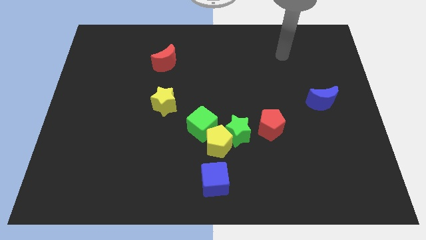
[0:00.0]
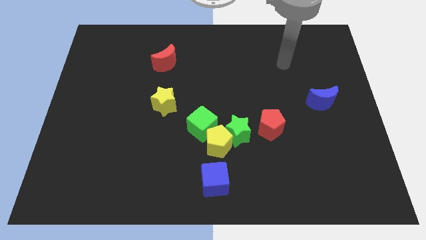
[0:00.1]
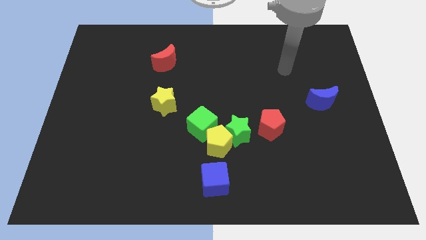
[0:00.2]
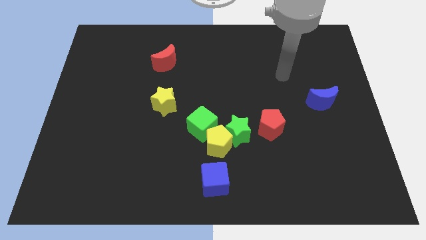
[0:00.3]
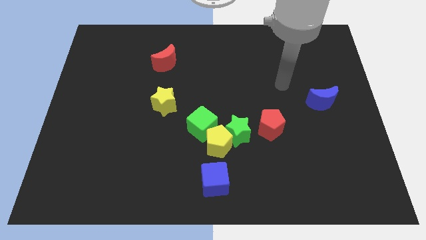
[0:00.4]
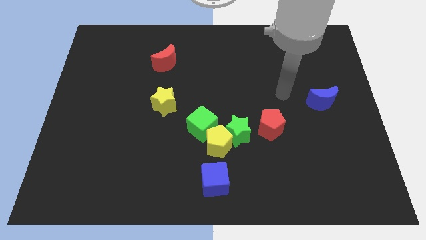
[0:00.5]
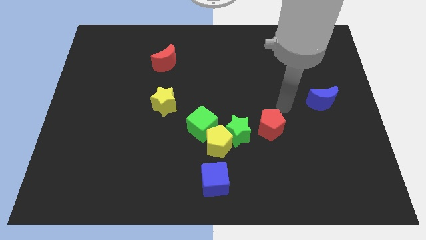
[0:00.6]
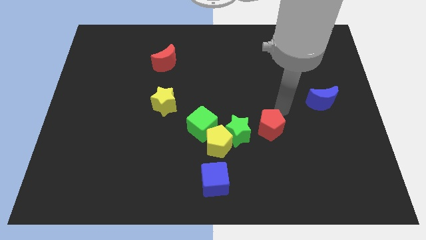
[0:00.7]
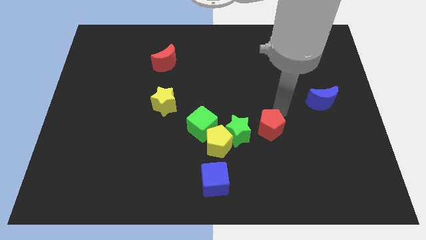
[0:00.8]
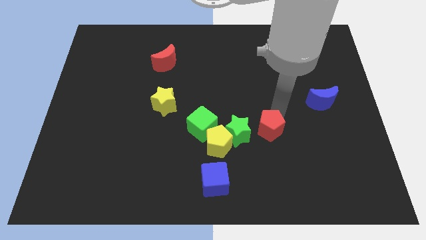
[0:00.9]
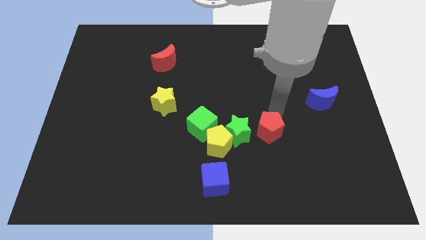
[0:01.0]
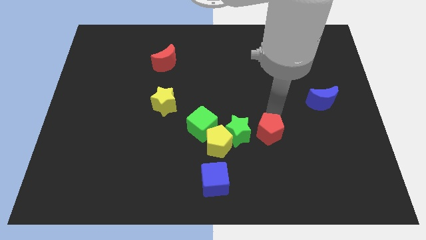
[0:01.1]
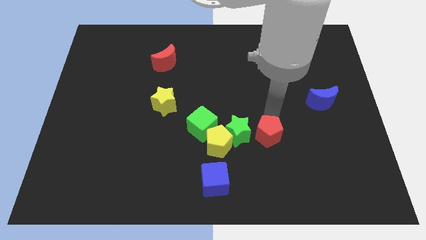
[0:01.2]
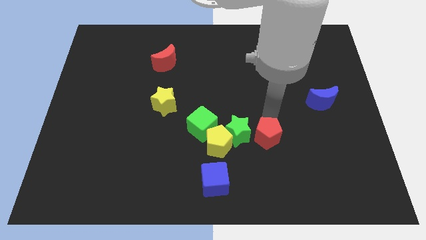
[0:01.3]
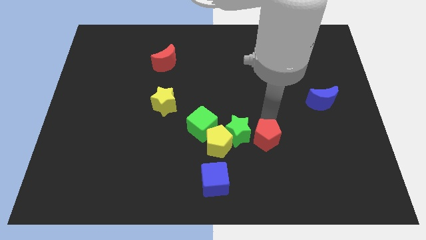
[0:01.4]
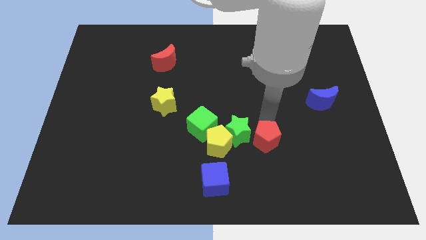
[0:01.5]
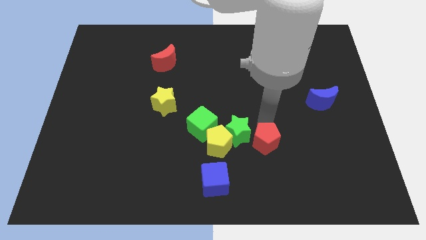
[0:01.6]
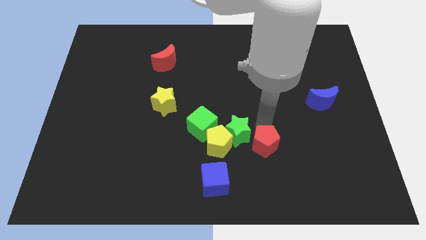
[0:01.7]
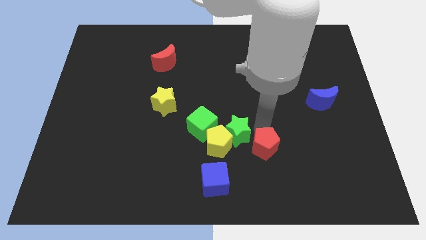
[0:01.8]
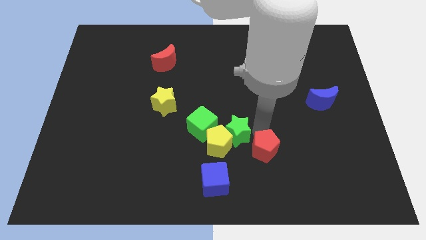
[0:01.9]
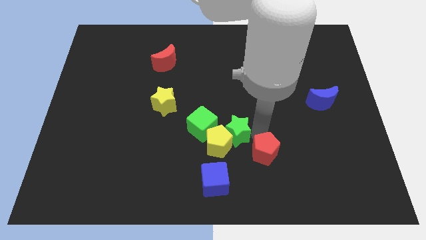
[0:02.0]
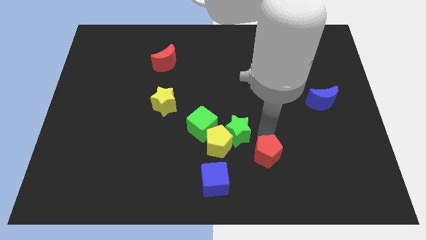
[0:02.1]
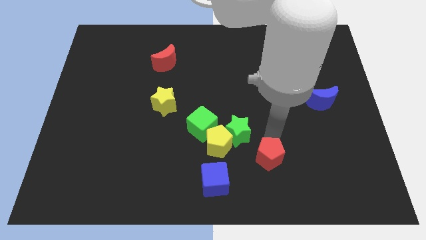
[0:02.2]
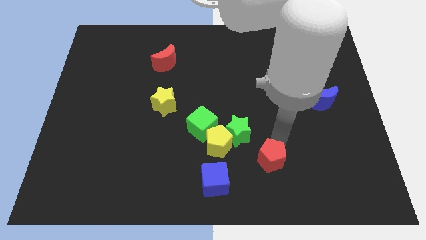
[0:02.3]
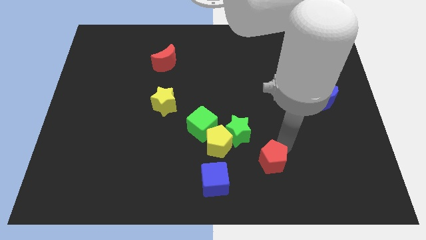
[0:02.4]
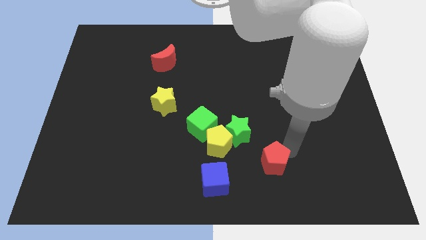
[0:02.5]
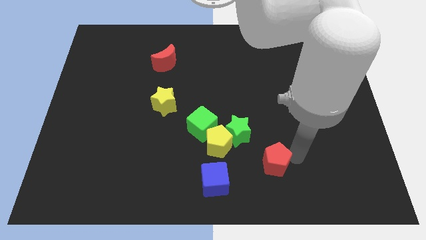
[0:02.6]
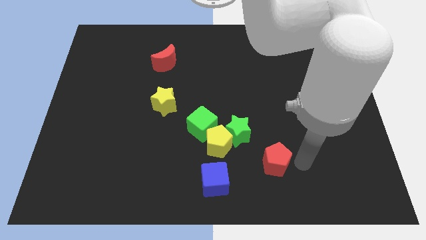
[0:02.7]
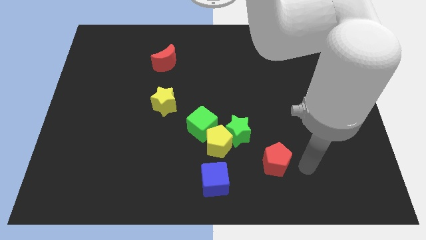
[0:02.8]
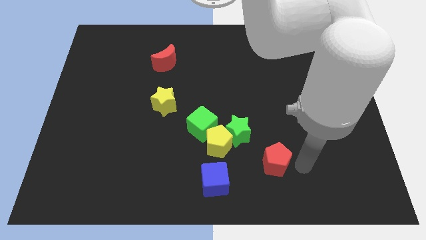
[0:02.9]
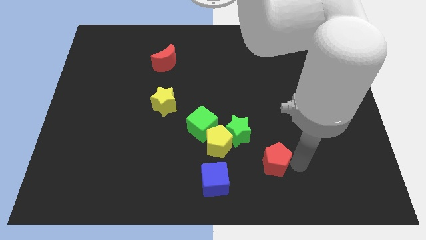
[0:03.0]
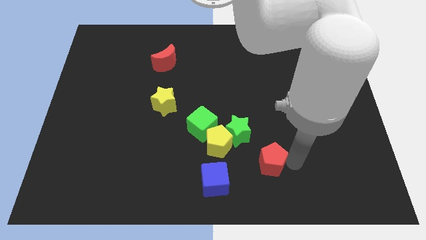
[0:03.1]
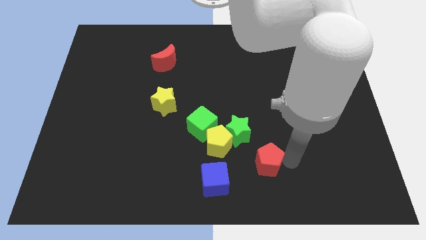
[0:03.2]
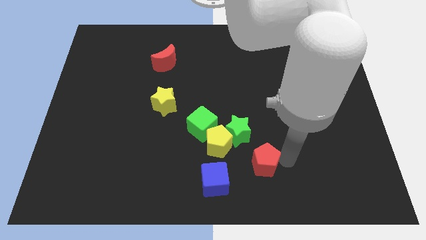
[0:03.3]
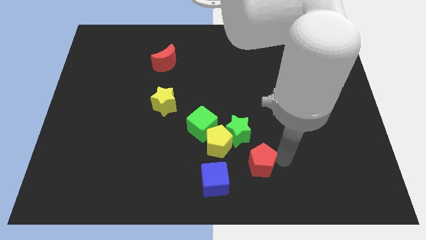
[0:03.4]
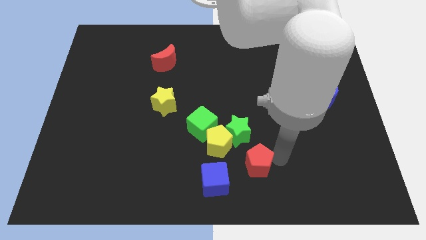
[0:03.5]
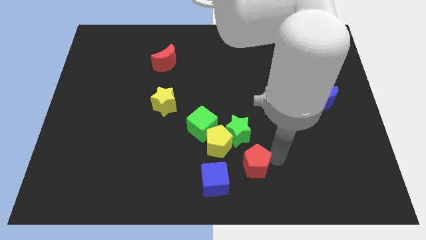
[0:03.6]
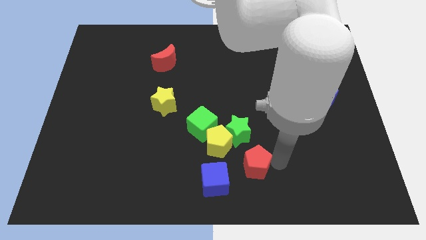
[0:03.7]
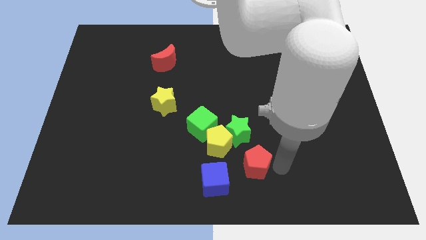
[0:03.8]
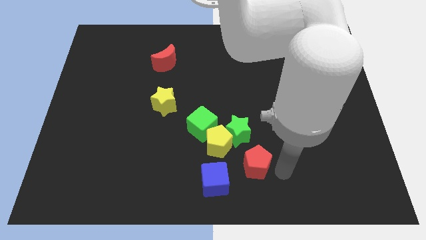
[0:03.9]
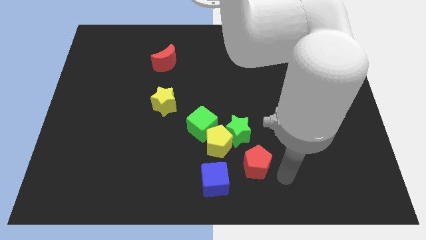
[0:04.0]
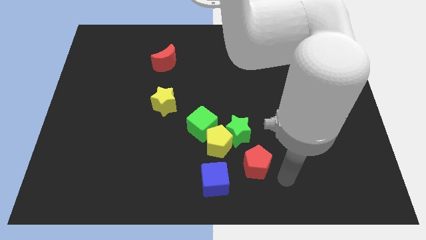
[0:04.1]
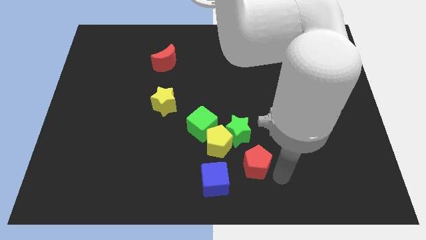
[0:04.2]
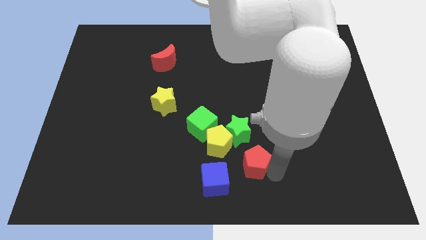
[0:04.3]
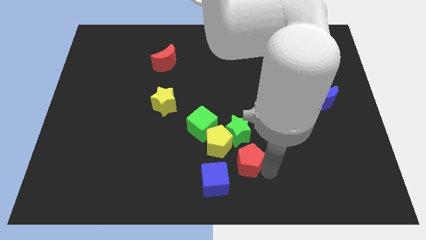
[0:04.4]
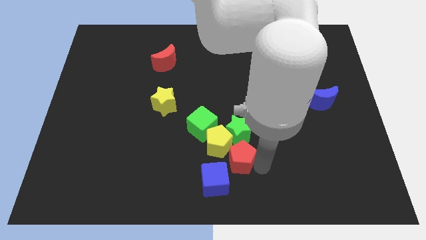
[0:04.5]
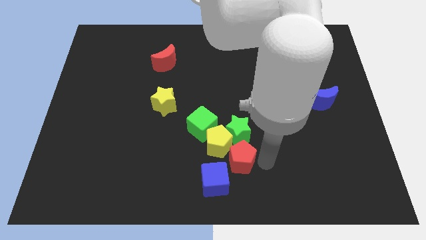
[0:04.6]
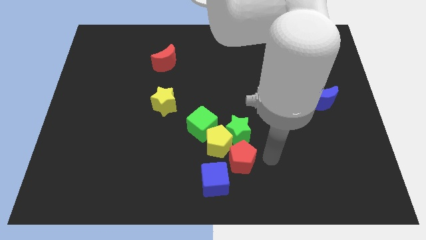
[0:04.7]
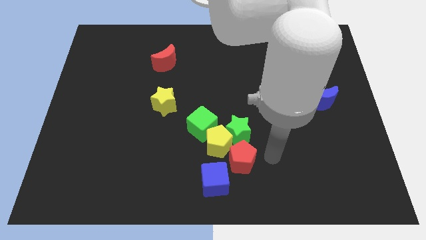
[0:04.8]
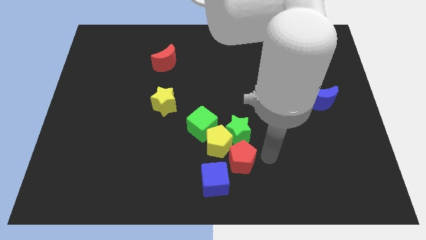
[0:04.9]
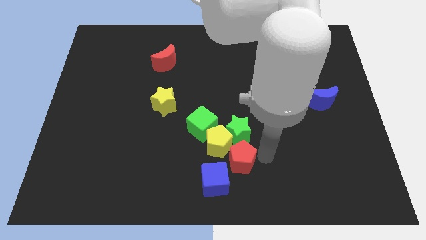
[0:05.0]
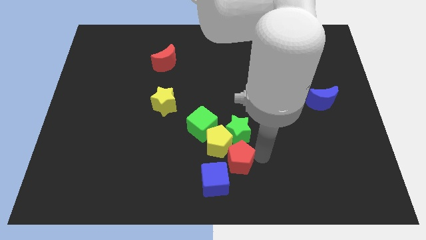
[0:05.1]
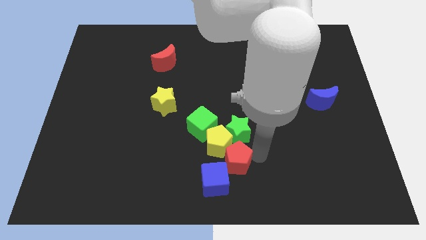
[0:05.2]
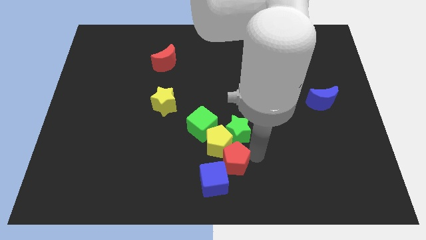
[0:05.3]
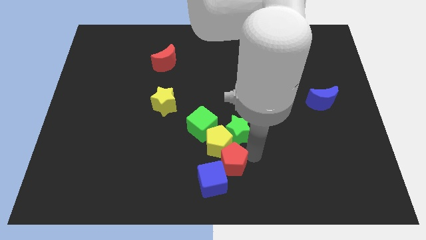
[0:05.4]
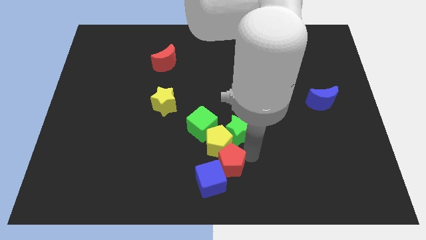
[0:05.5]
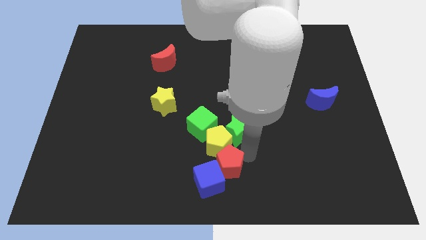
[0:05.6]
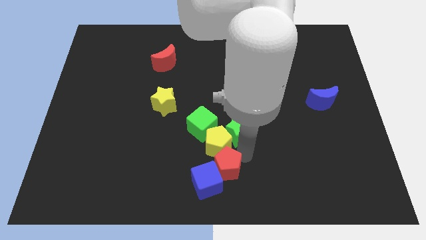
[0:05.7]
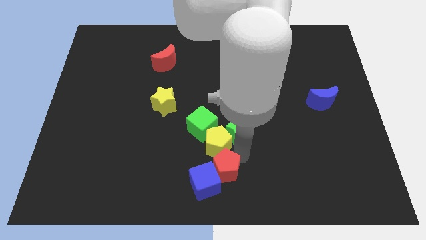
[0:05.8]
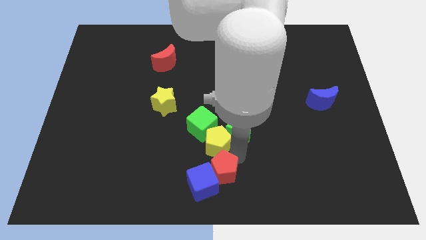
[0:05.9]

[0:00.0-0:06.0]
move the red pentagon to the bottom side of the green cube

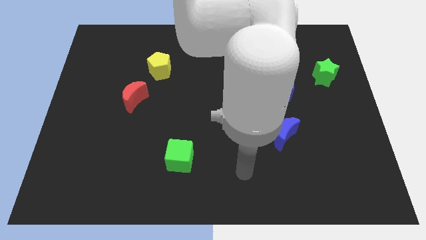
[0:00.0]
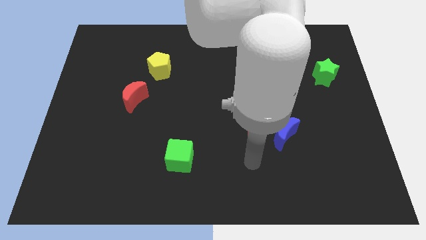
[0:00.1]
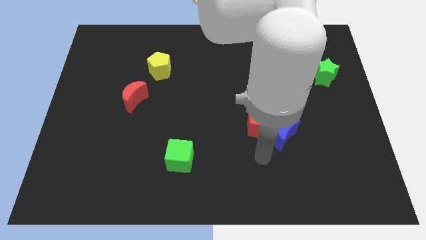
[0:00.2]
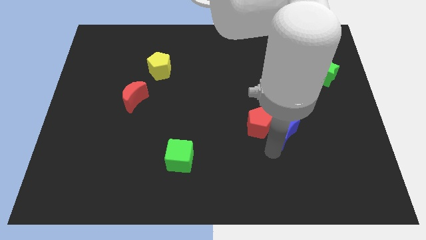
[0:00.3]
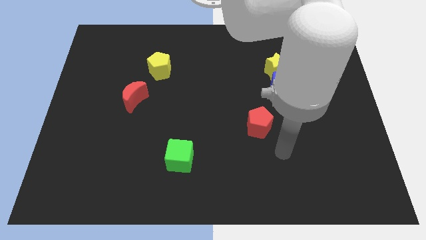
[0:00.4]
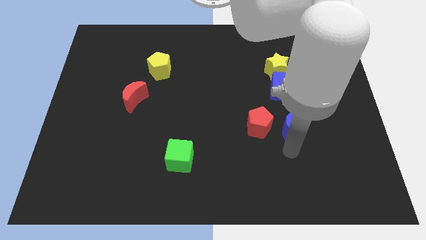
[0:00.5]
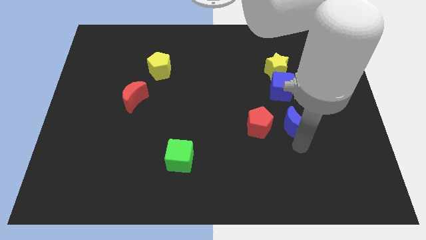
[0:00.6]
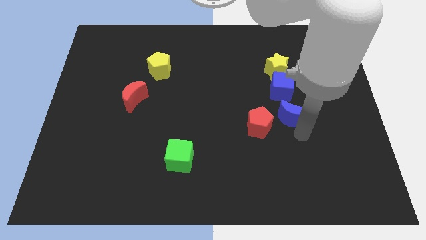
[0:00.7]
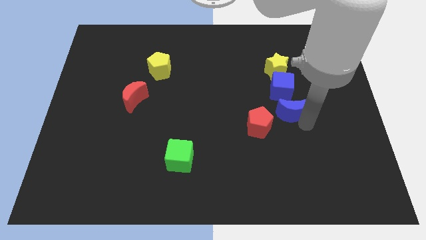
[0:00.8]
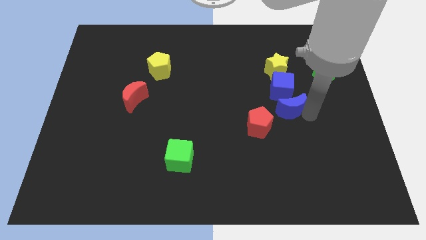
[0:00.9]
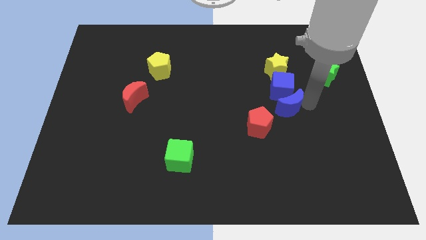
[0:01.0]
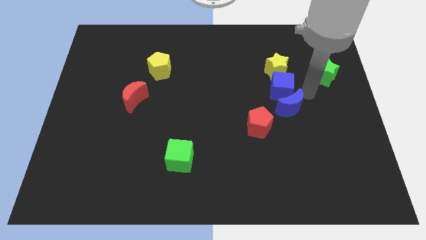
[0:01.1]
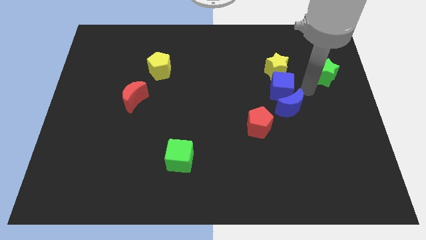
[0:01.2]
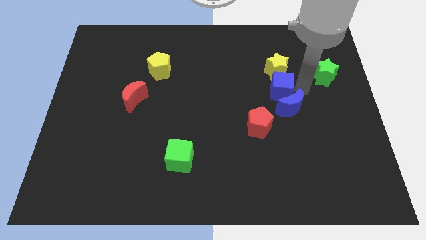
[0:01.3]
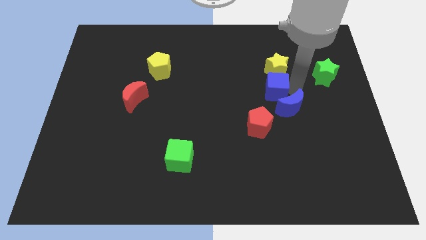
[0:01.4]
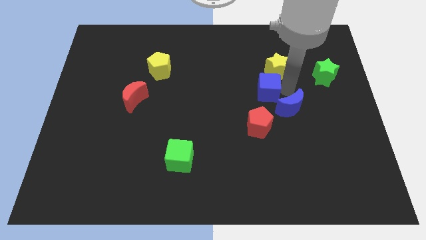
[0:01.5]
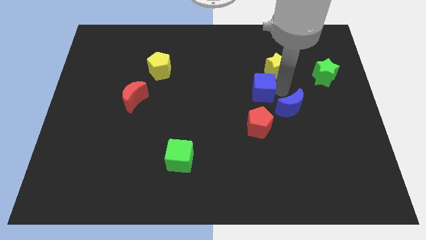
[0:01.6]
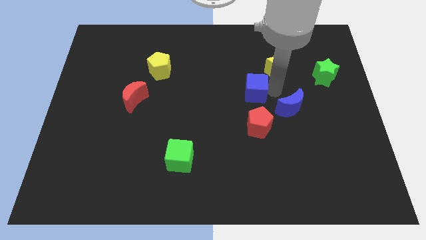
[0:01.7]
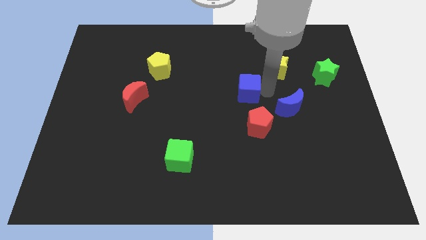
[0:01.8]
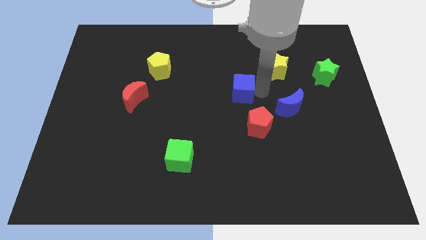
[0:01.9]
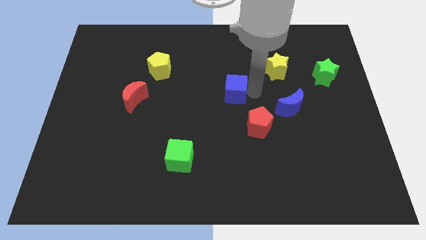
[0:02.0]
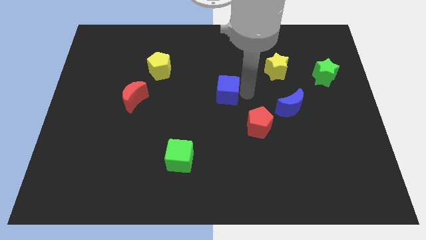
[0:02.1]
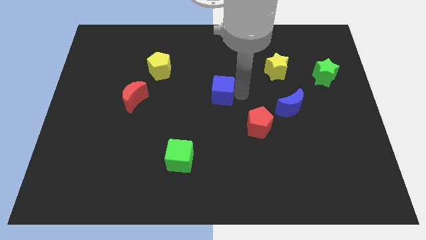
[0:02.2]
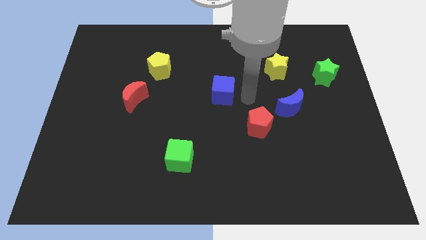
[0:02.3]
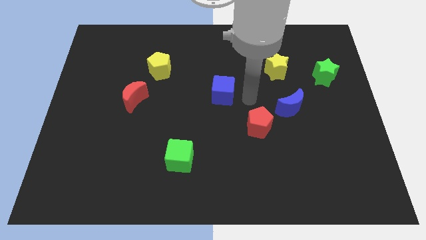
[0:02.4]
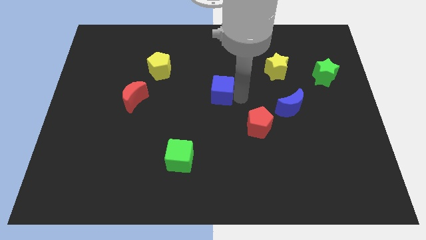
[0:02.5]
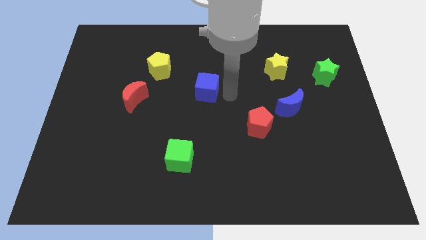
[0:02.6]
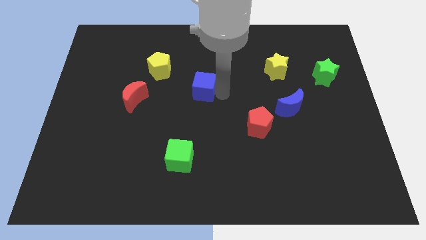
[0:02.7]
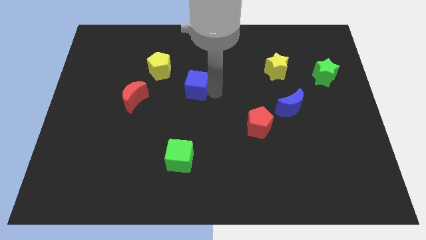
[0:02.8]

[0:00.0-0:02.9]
move the blue cube to the bottom right side of the yellow pentagon

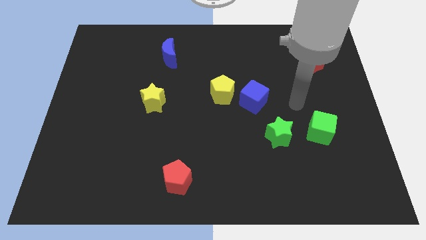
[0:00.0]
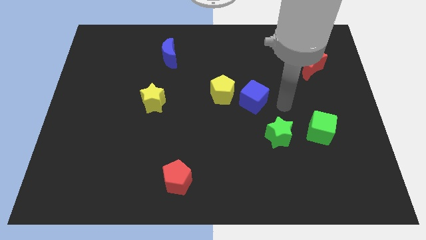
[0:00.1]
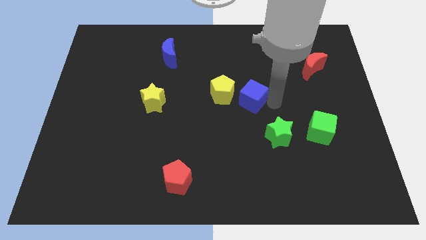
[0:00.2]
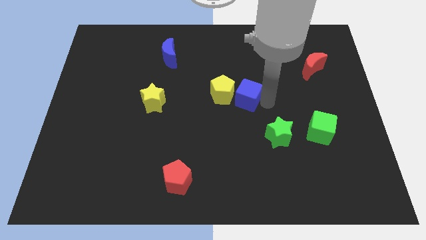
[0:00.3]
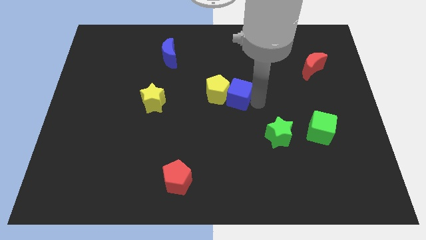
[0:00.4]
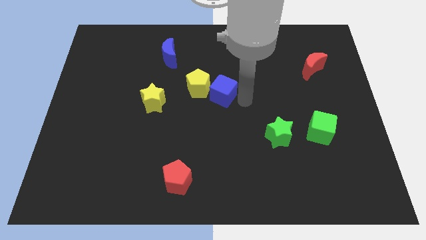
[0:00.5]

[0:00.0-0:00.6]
put the yellow pentagon diagonally up and to the right of the yellow star
